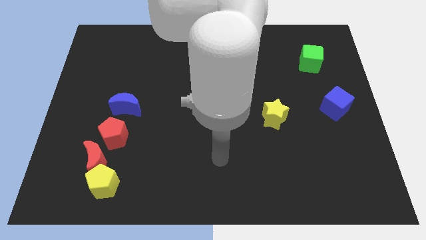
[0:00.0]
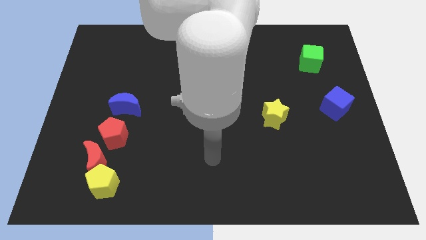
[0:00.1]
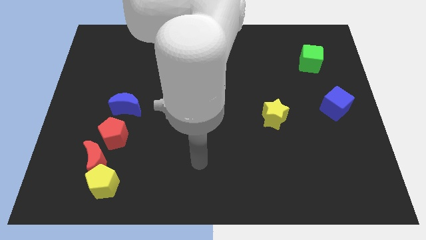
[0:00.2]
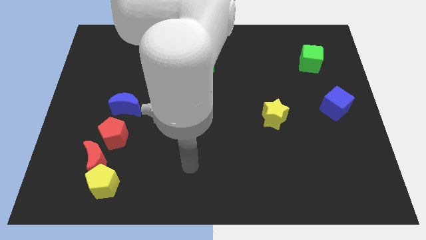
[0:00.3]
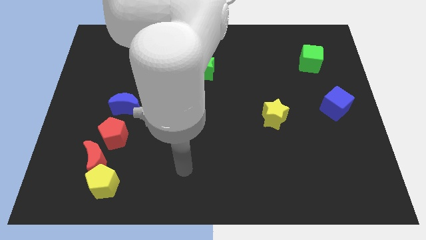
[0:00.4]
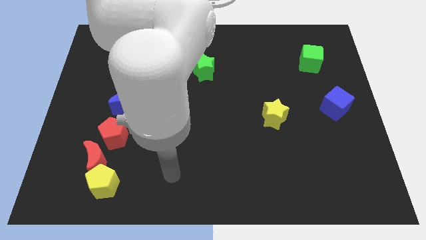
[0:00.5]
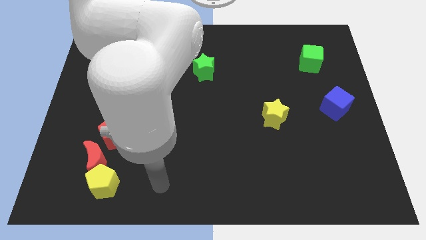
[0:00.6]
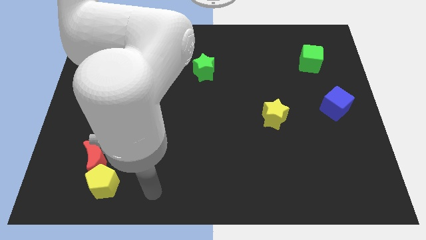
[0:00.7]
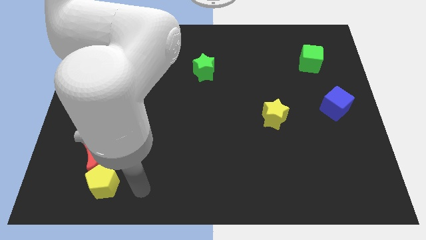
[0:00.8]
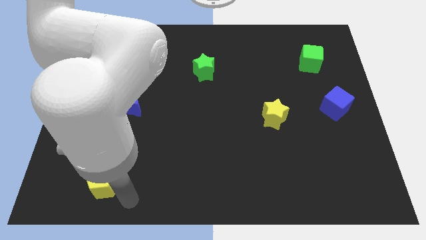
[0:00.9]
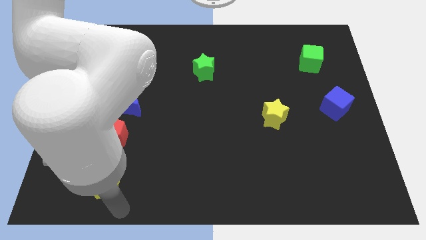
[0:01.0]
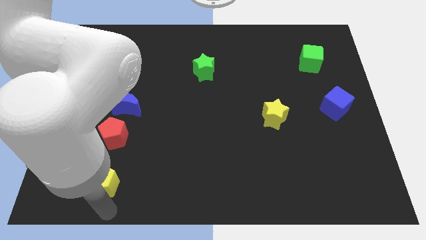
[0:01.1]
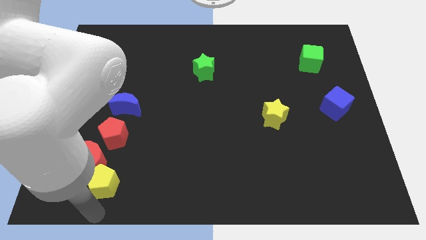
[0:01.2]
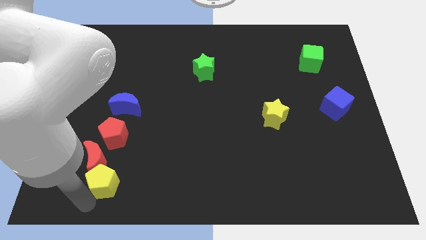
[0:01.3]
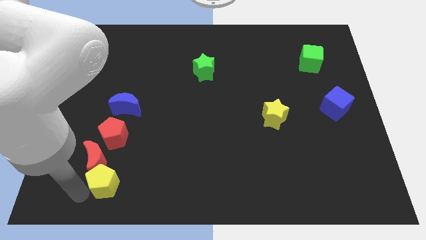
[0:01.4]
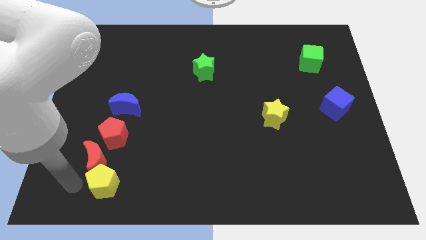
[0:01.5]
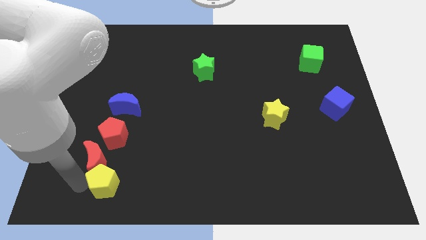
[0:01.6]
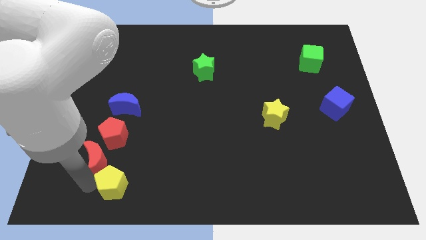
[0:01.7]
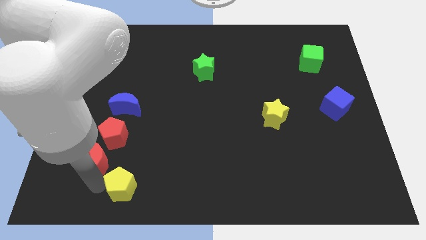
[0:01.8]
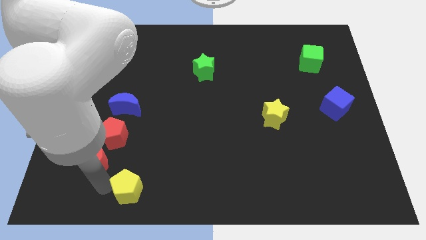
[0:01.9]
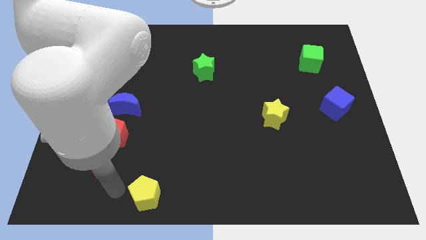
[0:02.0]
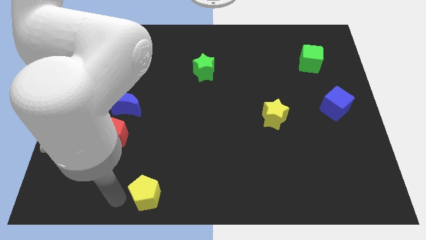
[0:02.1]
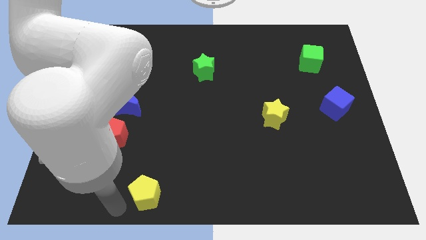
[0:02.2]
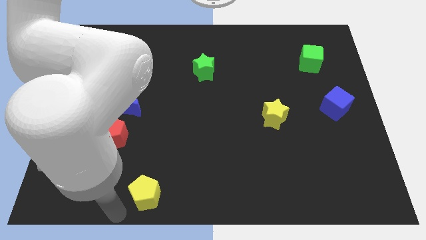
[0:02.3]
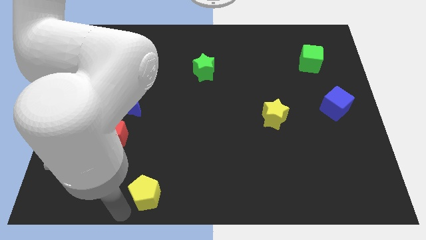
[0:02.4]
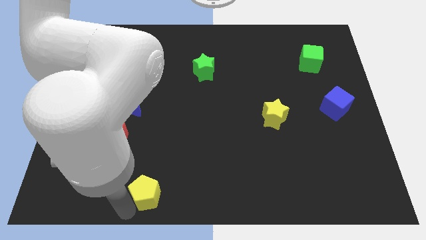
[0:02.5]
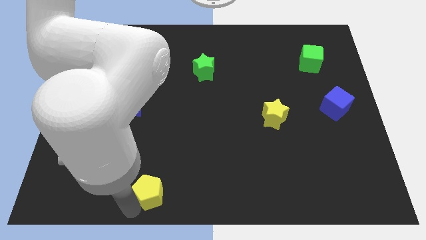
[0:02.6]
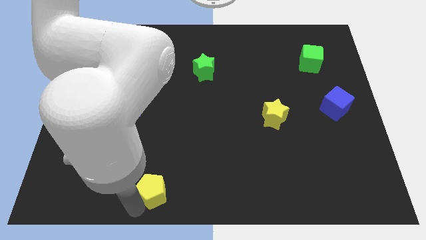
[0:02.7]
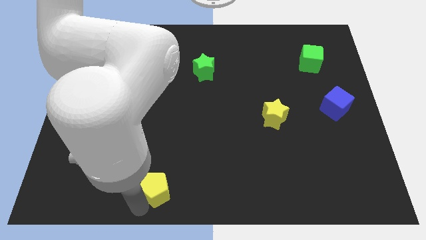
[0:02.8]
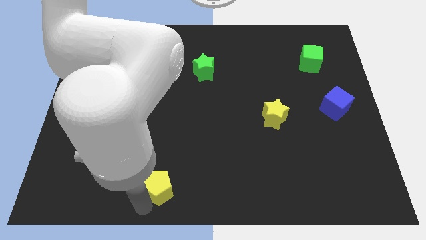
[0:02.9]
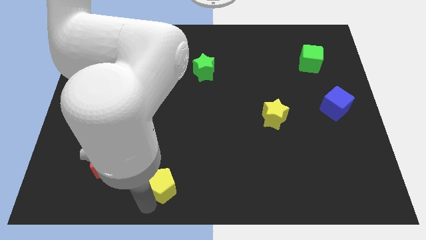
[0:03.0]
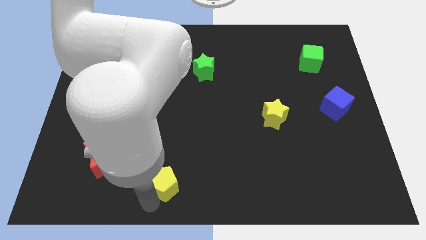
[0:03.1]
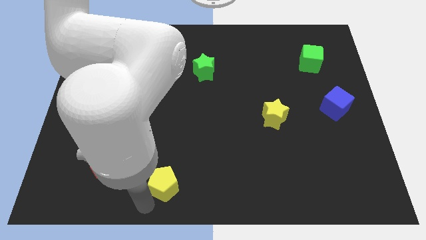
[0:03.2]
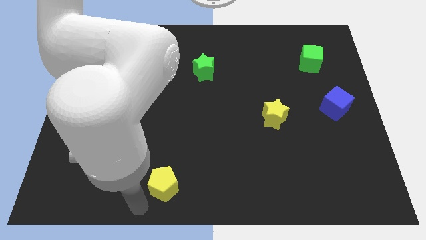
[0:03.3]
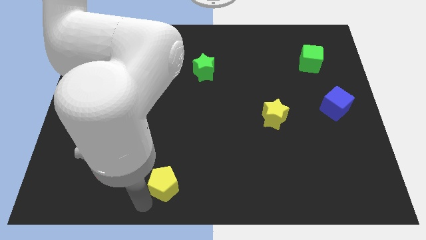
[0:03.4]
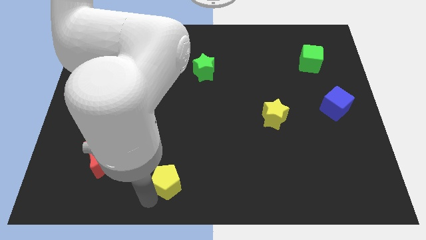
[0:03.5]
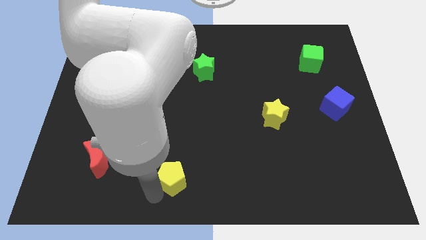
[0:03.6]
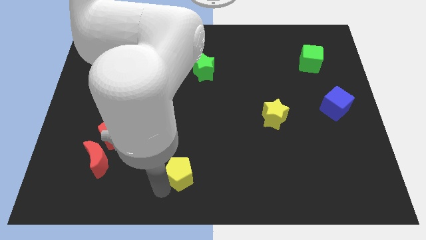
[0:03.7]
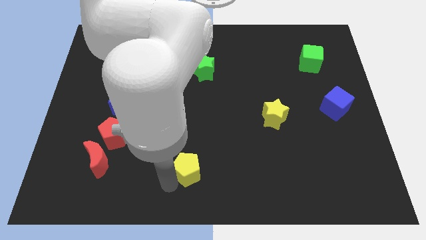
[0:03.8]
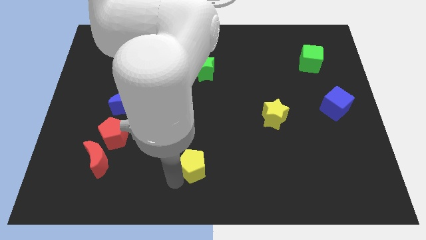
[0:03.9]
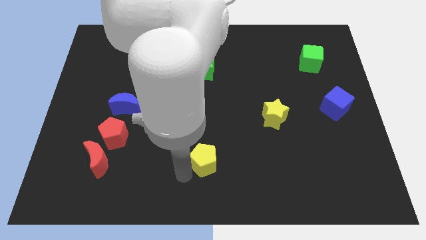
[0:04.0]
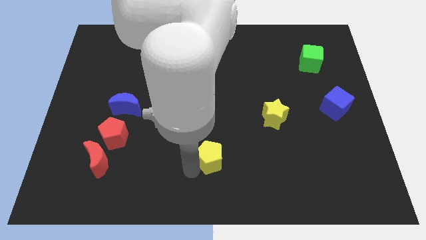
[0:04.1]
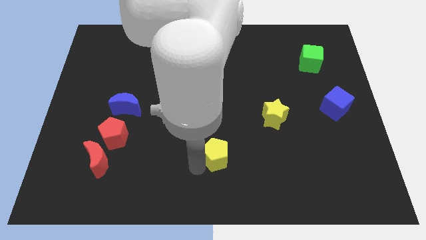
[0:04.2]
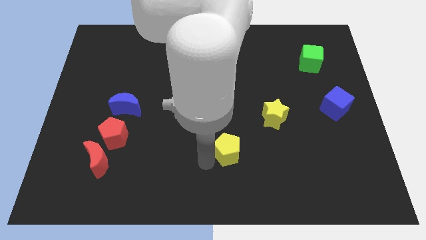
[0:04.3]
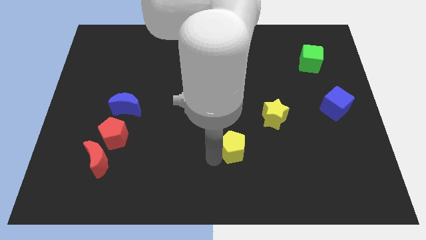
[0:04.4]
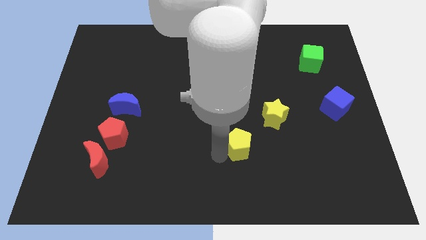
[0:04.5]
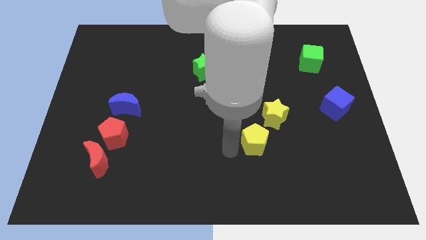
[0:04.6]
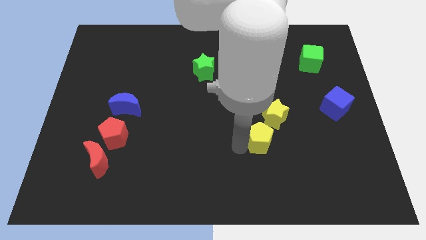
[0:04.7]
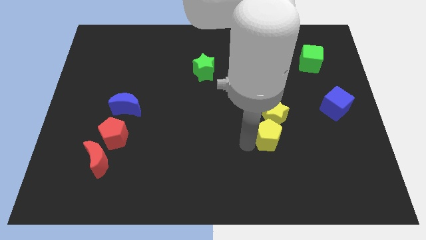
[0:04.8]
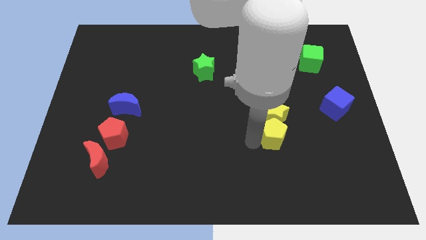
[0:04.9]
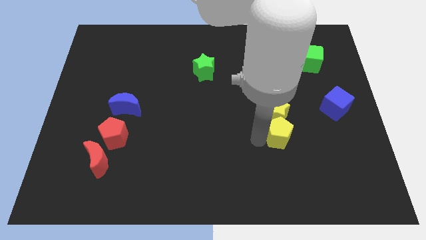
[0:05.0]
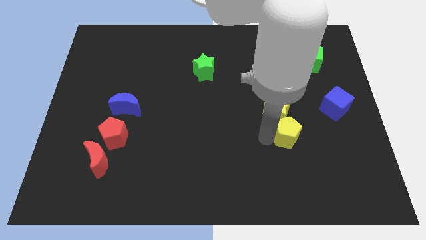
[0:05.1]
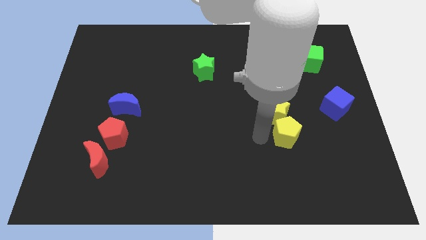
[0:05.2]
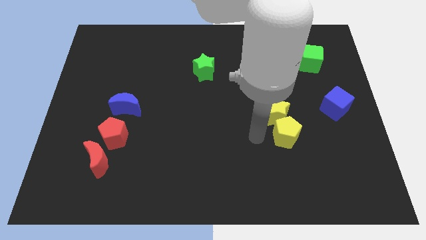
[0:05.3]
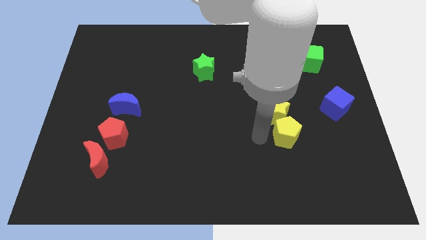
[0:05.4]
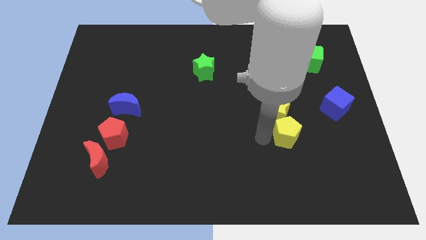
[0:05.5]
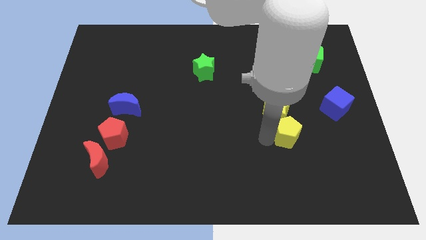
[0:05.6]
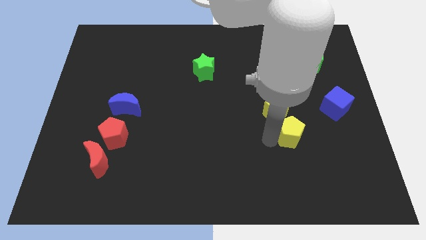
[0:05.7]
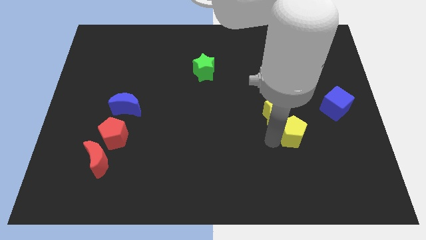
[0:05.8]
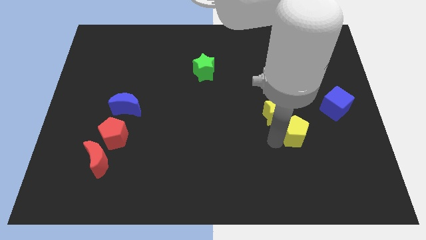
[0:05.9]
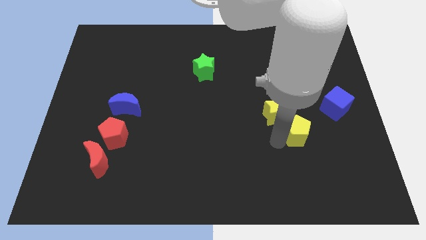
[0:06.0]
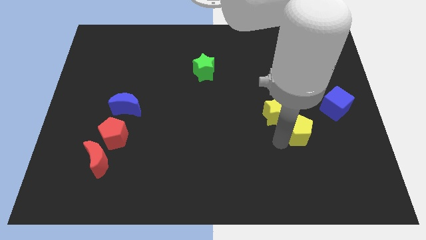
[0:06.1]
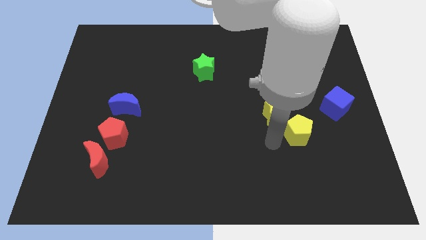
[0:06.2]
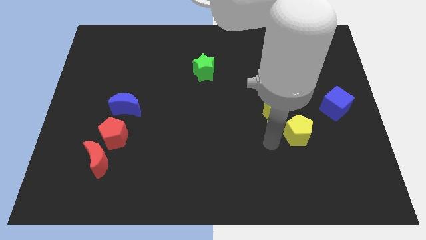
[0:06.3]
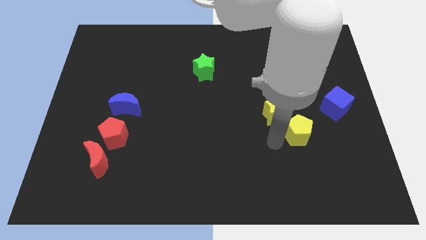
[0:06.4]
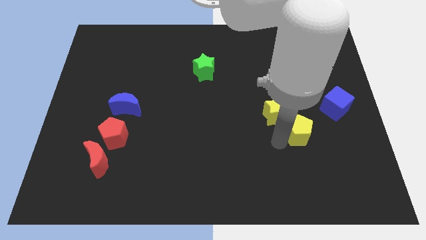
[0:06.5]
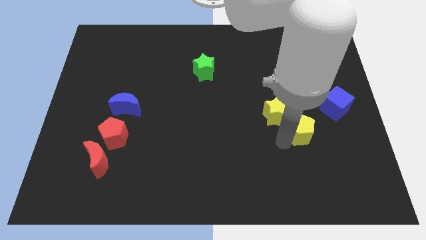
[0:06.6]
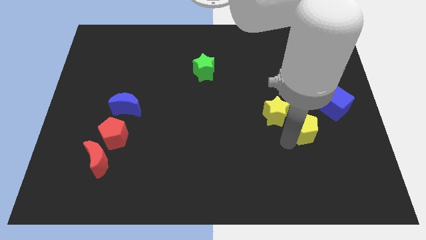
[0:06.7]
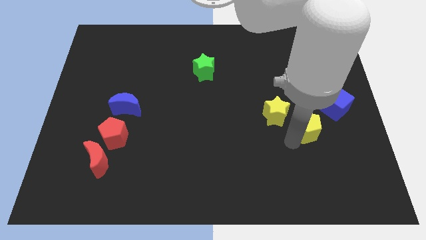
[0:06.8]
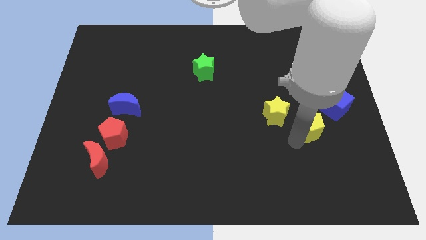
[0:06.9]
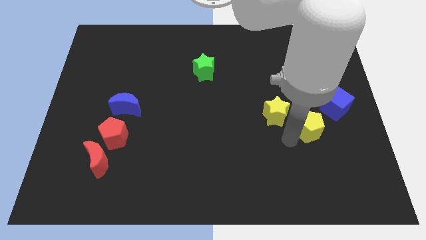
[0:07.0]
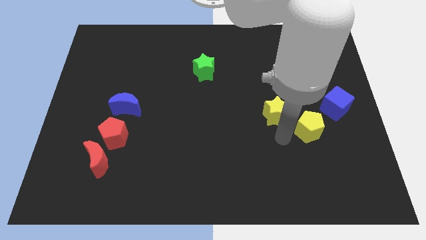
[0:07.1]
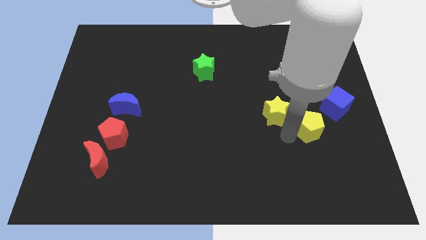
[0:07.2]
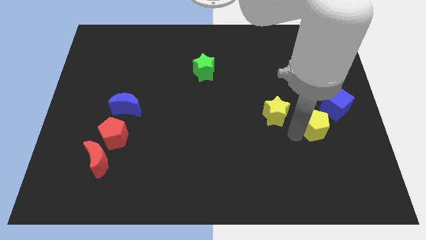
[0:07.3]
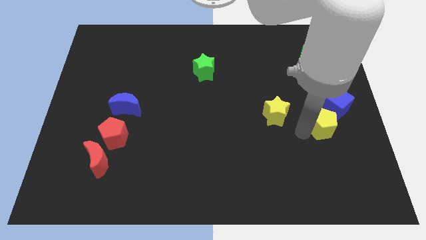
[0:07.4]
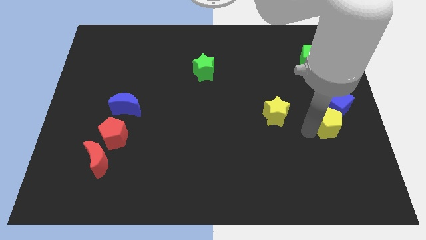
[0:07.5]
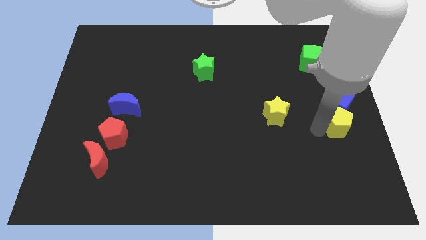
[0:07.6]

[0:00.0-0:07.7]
slide the yellow pentagon to the center right
